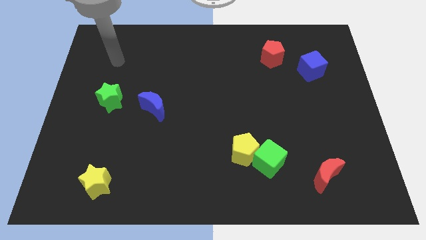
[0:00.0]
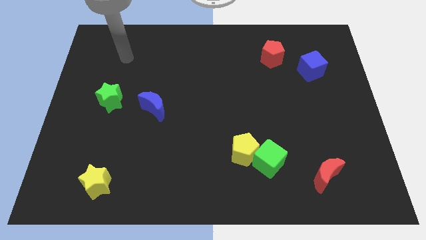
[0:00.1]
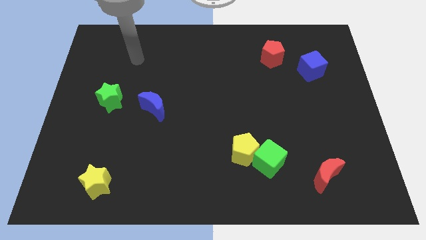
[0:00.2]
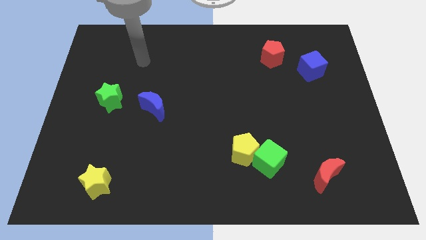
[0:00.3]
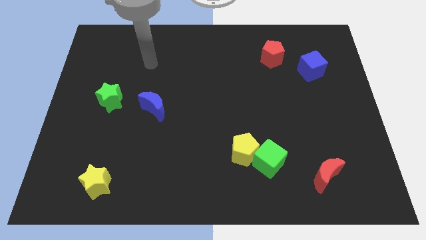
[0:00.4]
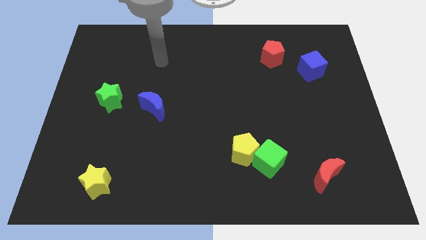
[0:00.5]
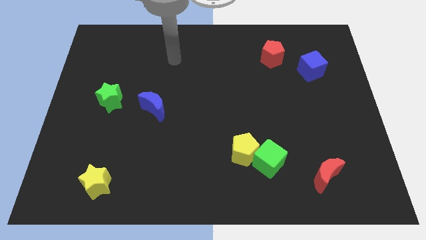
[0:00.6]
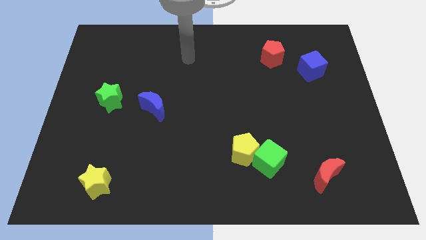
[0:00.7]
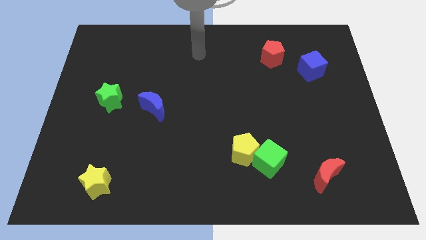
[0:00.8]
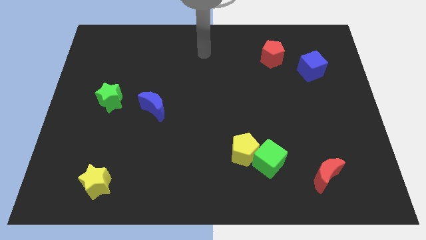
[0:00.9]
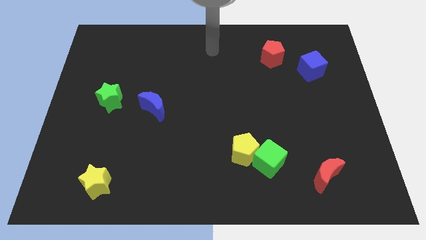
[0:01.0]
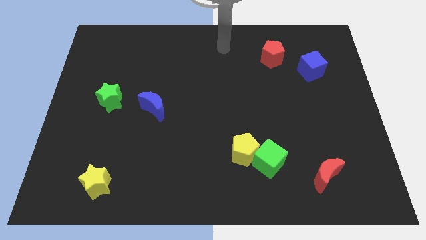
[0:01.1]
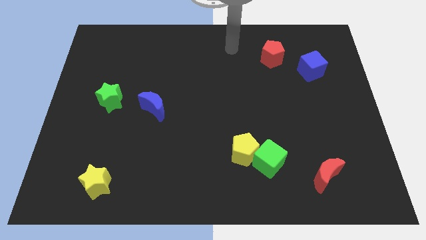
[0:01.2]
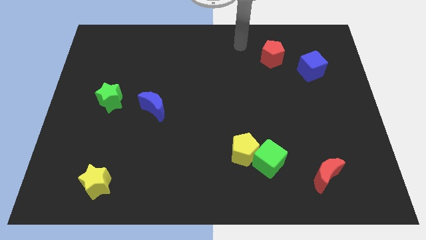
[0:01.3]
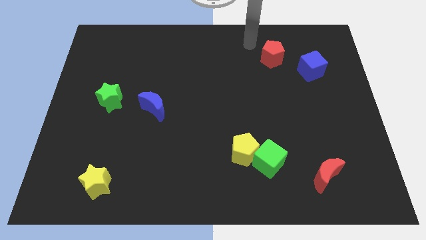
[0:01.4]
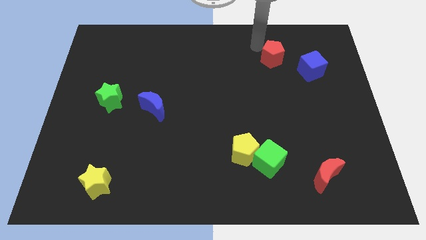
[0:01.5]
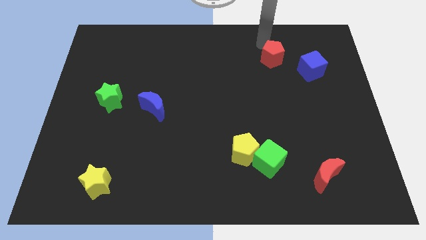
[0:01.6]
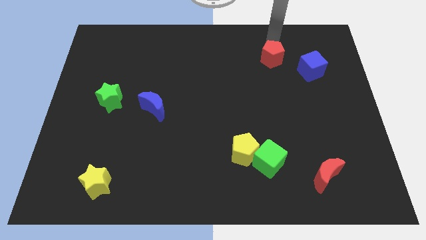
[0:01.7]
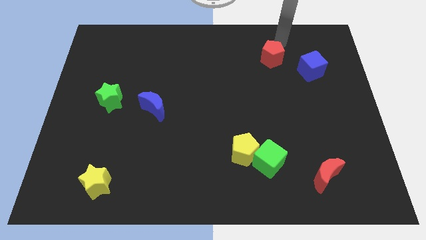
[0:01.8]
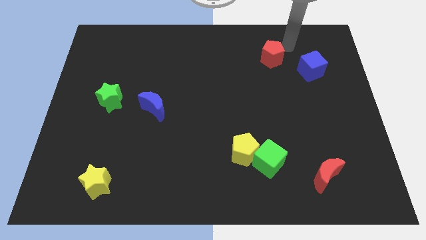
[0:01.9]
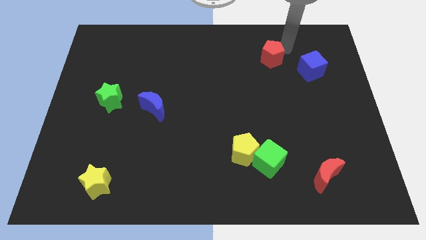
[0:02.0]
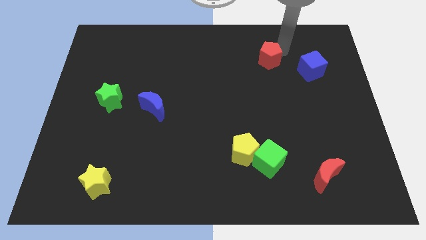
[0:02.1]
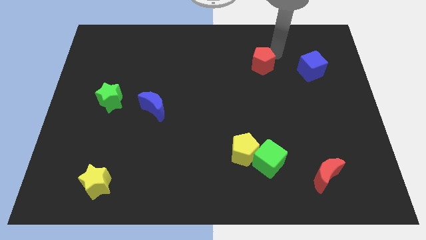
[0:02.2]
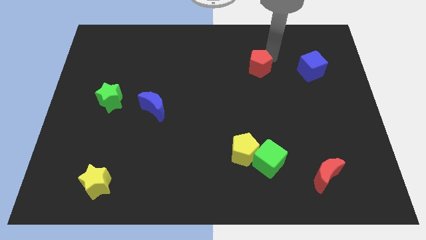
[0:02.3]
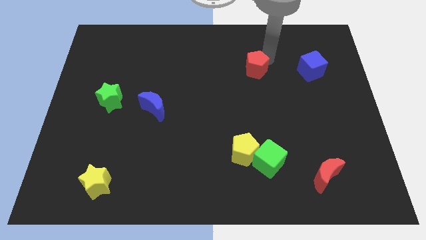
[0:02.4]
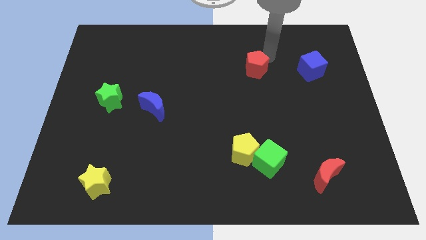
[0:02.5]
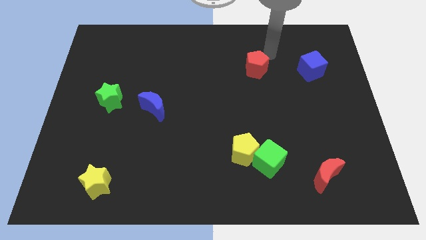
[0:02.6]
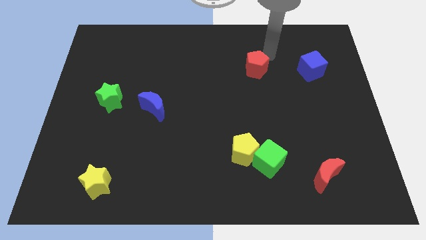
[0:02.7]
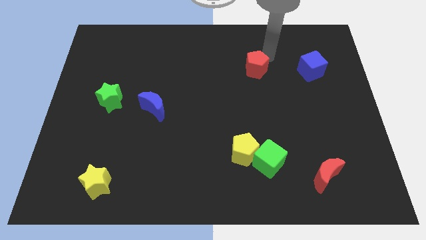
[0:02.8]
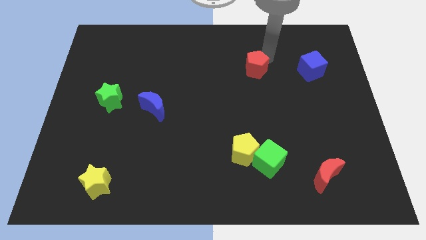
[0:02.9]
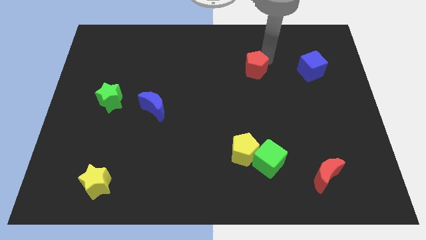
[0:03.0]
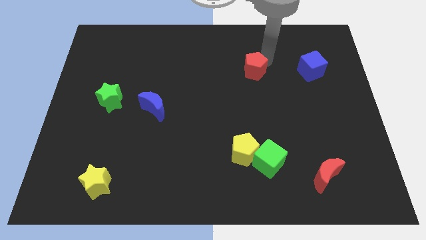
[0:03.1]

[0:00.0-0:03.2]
push the red pentagon down and to the left somewhat

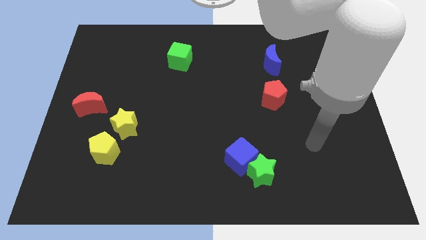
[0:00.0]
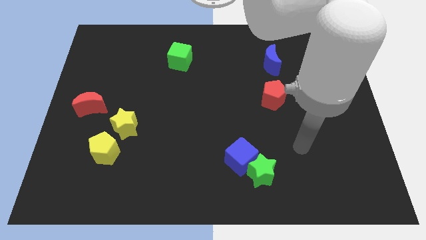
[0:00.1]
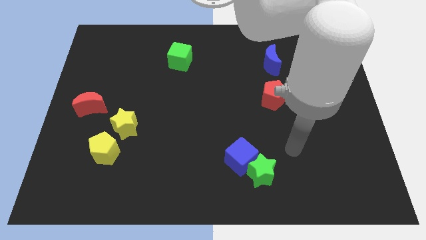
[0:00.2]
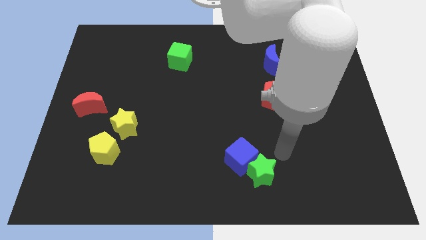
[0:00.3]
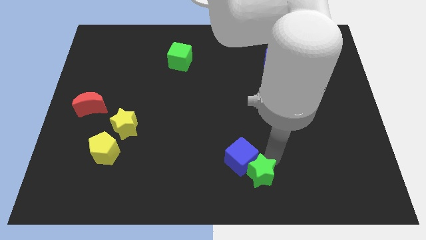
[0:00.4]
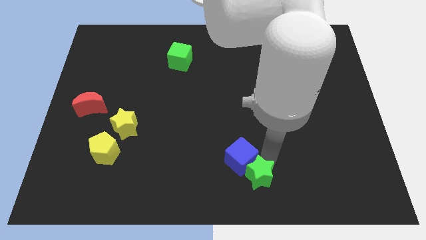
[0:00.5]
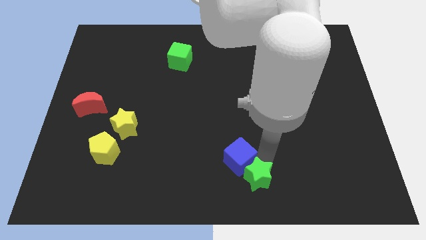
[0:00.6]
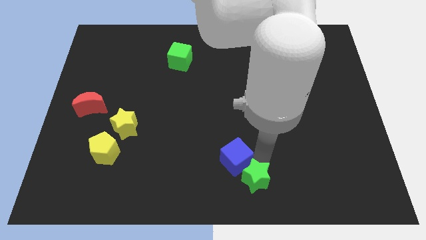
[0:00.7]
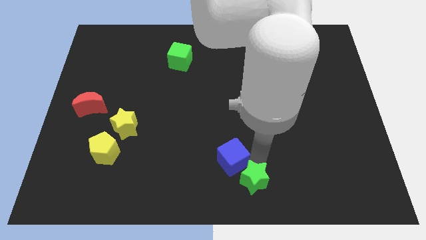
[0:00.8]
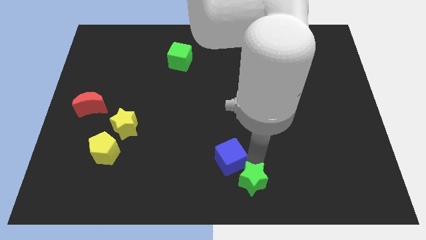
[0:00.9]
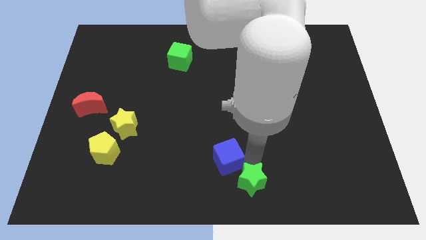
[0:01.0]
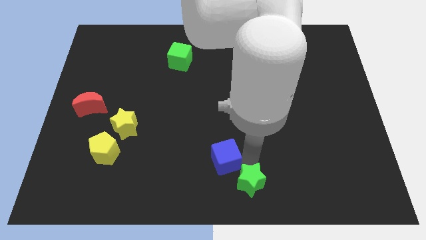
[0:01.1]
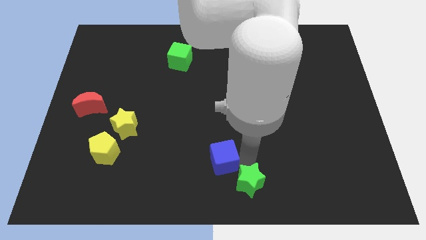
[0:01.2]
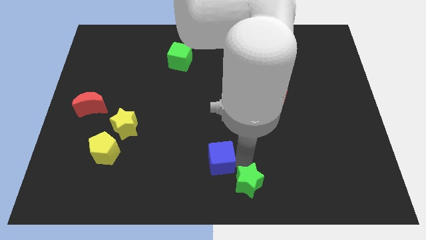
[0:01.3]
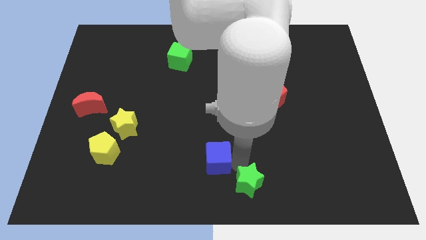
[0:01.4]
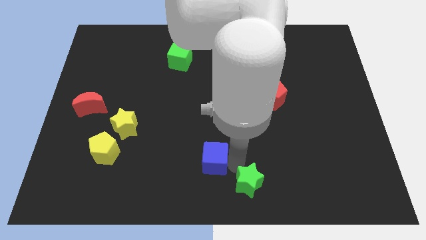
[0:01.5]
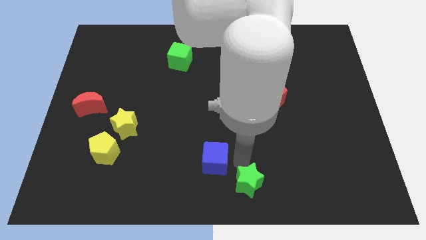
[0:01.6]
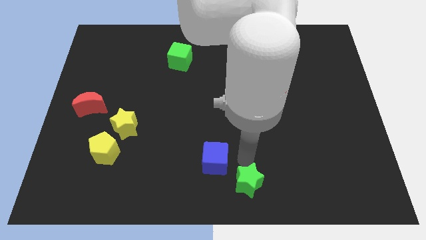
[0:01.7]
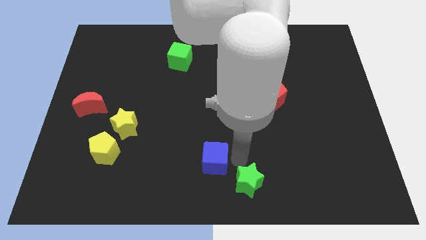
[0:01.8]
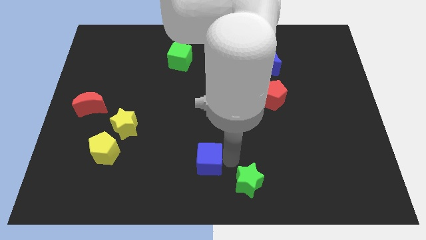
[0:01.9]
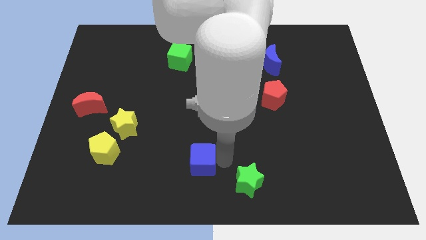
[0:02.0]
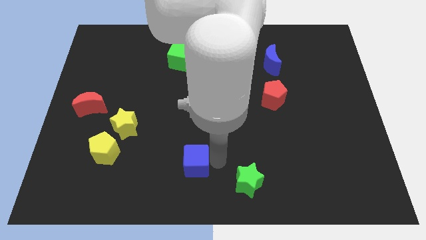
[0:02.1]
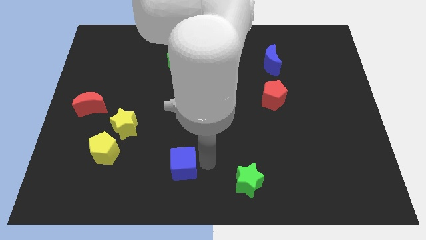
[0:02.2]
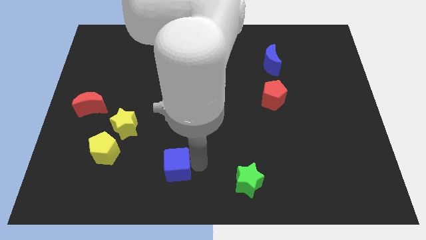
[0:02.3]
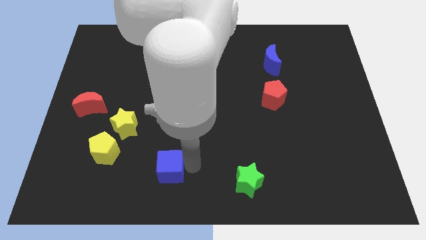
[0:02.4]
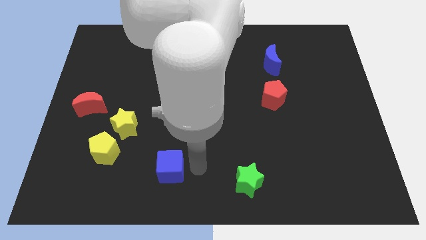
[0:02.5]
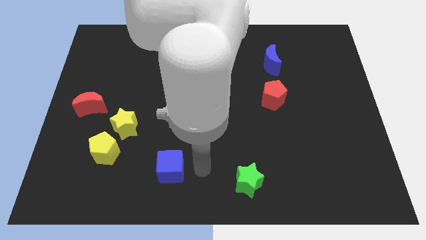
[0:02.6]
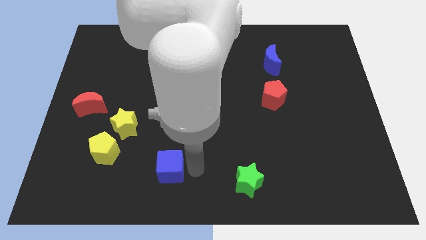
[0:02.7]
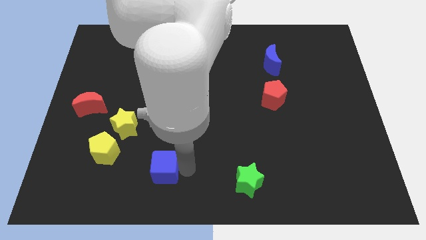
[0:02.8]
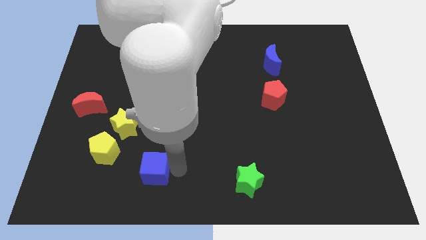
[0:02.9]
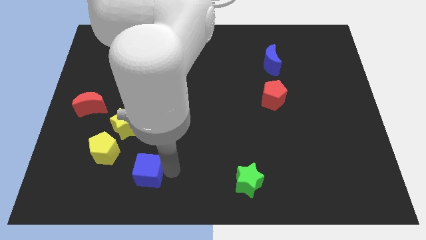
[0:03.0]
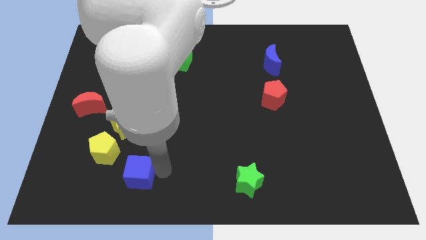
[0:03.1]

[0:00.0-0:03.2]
move the blue cube left

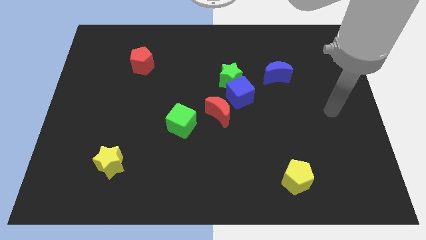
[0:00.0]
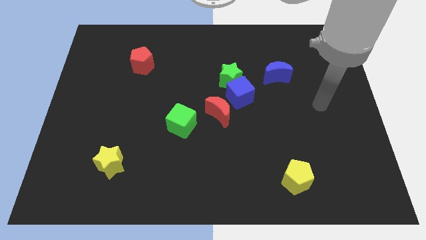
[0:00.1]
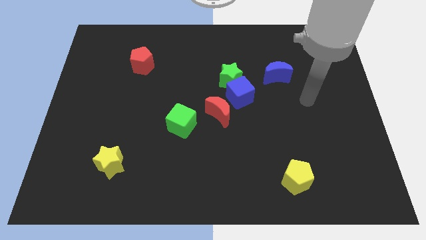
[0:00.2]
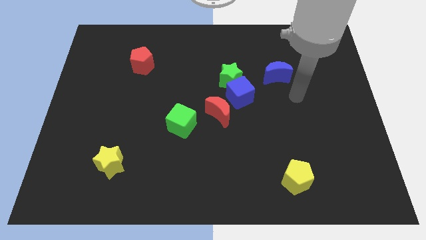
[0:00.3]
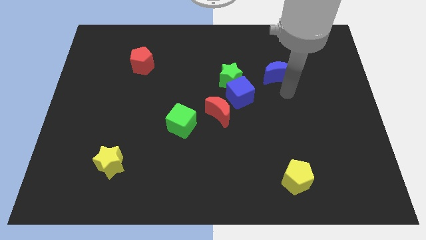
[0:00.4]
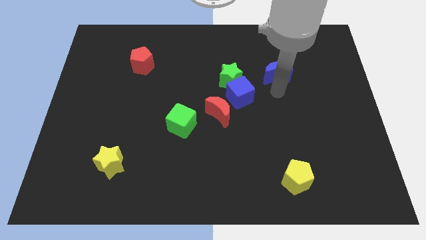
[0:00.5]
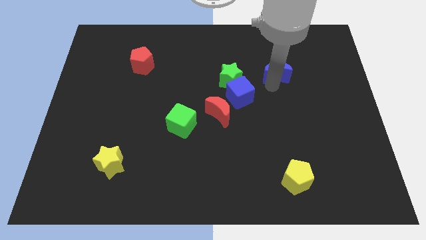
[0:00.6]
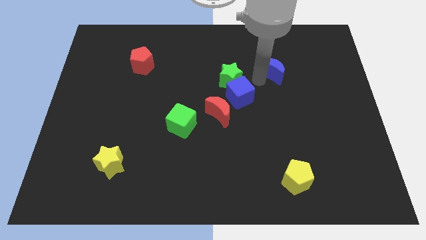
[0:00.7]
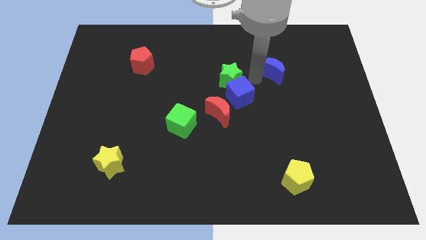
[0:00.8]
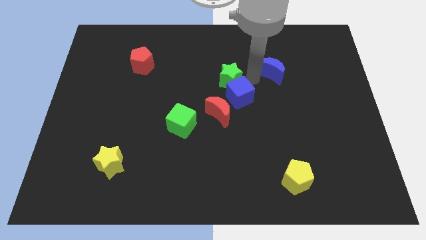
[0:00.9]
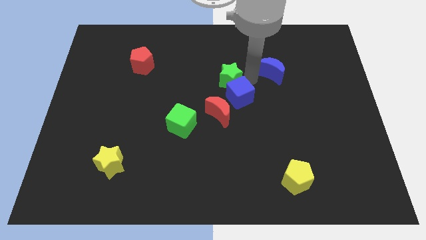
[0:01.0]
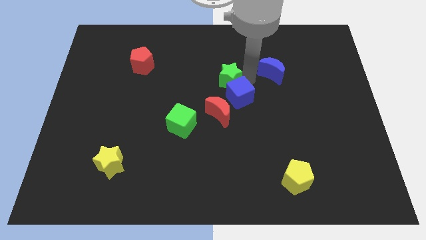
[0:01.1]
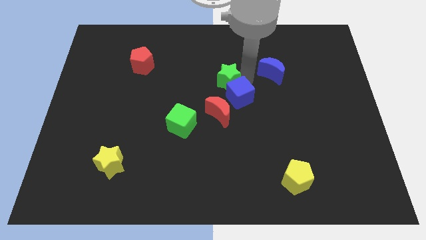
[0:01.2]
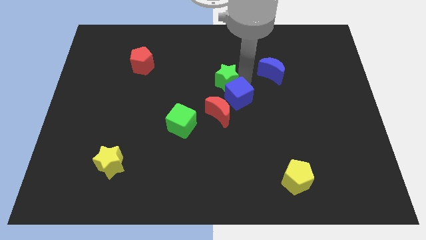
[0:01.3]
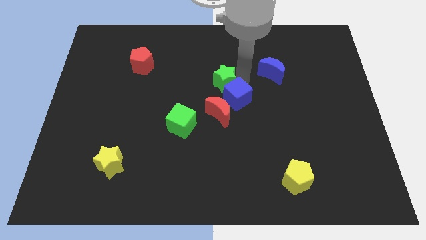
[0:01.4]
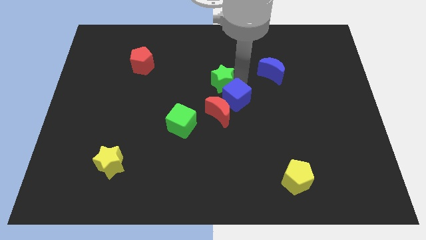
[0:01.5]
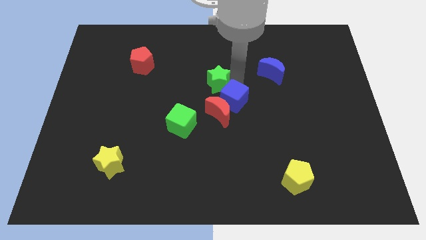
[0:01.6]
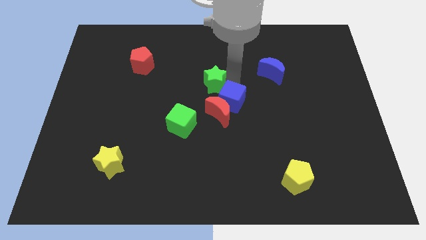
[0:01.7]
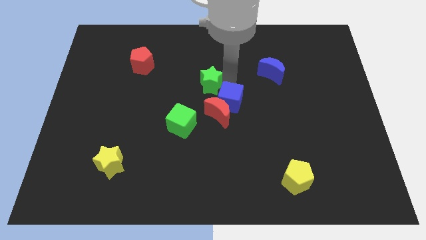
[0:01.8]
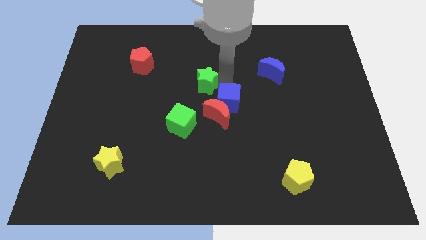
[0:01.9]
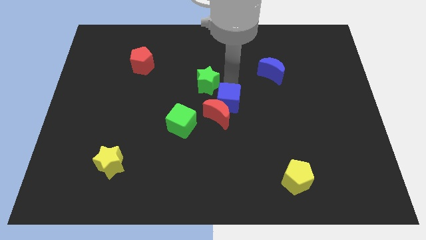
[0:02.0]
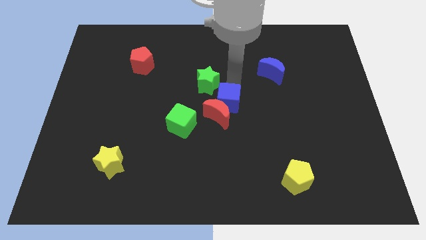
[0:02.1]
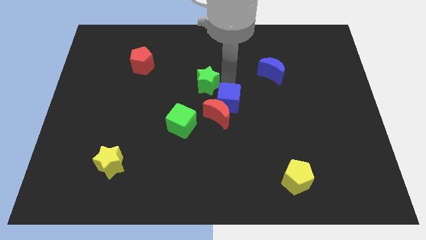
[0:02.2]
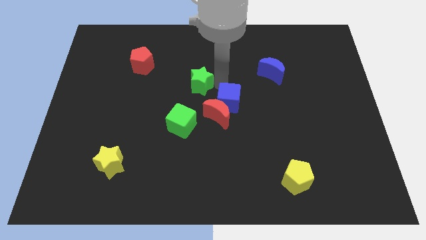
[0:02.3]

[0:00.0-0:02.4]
slide the green star to the left a little bit
